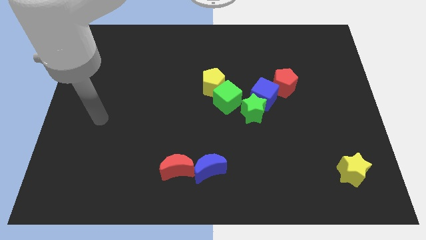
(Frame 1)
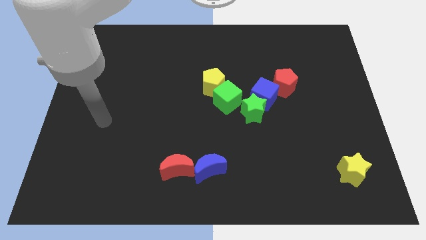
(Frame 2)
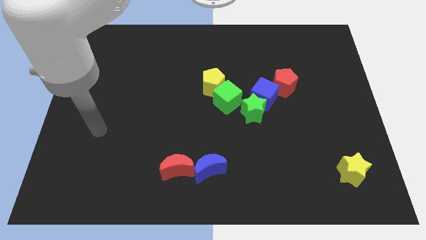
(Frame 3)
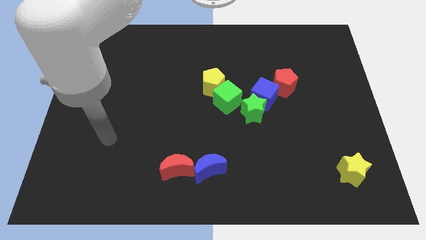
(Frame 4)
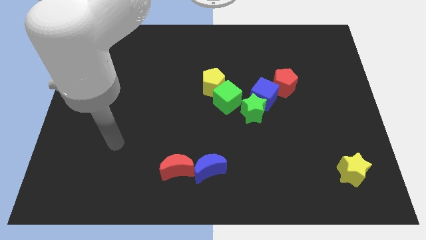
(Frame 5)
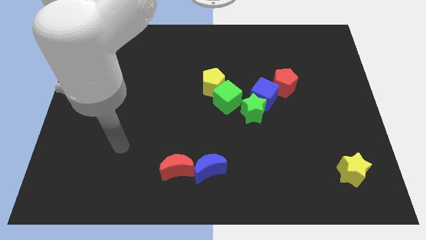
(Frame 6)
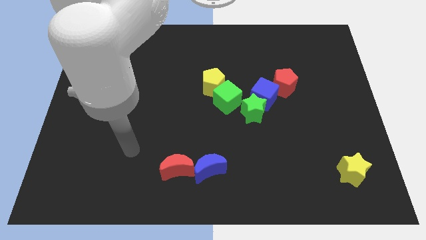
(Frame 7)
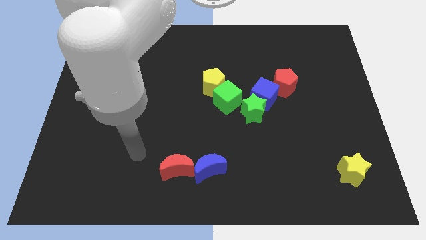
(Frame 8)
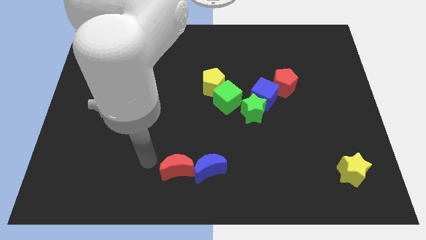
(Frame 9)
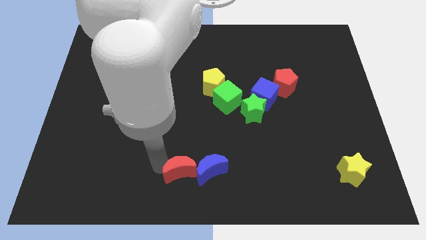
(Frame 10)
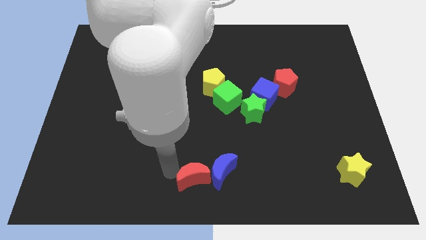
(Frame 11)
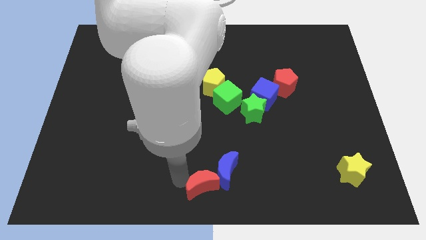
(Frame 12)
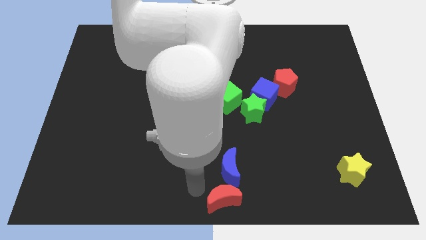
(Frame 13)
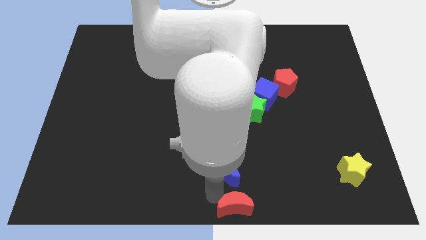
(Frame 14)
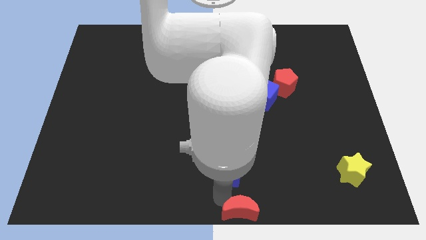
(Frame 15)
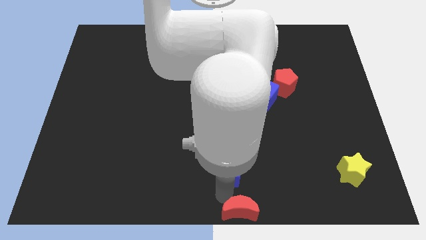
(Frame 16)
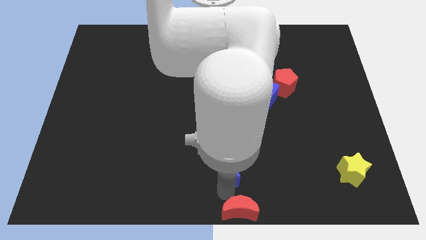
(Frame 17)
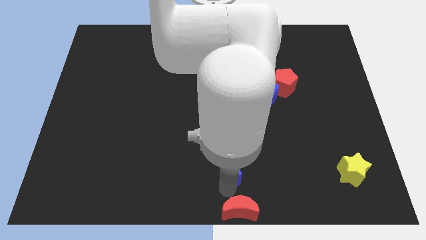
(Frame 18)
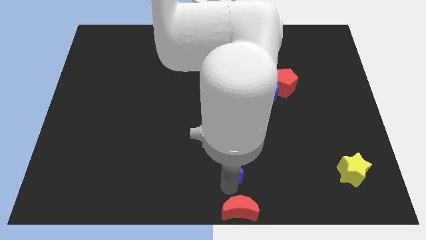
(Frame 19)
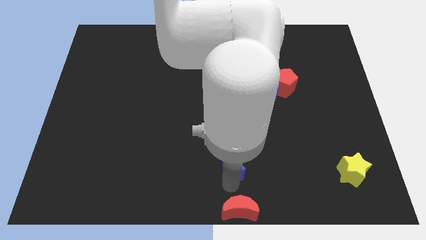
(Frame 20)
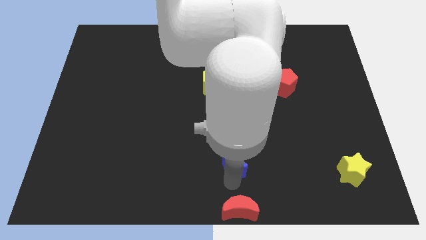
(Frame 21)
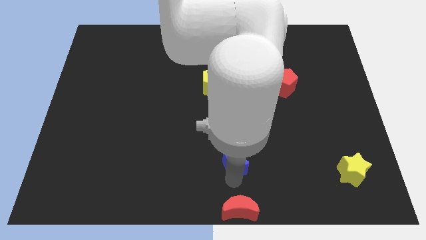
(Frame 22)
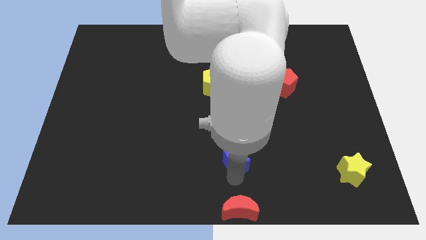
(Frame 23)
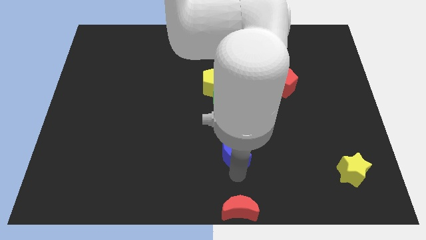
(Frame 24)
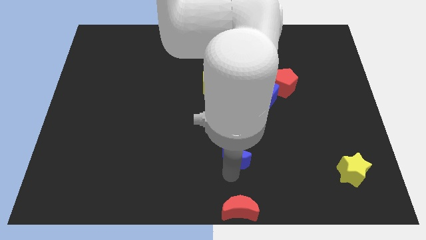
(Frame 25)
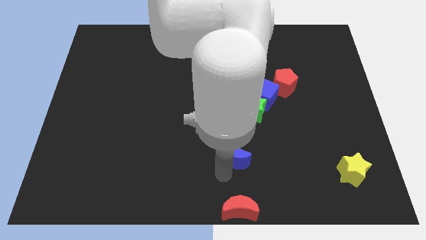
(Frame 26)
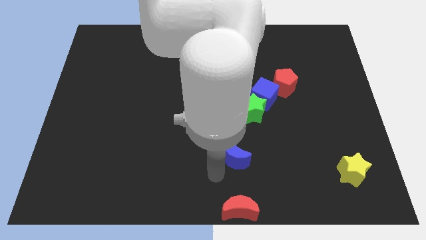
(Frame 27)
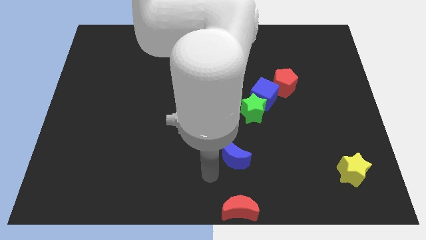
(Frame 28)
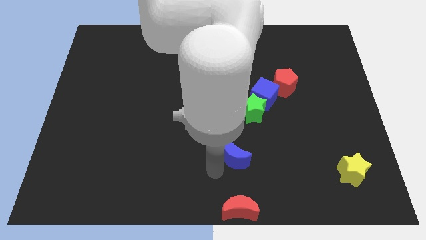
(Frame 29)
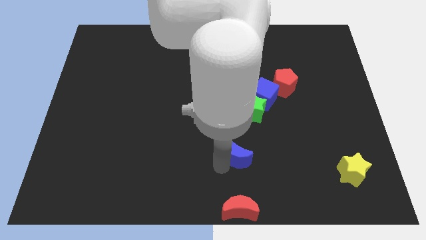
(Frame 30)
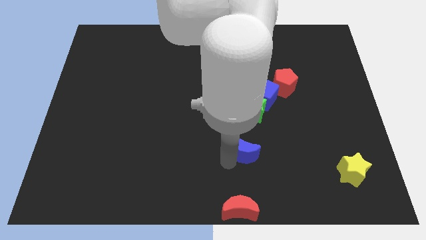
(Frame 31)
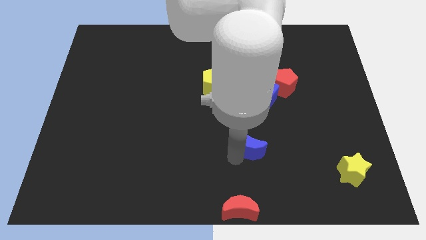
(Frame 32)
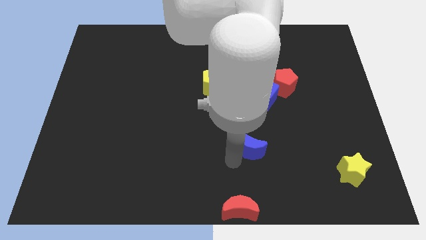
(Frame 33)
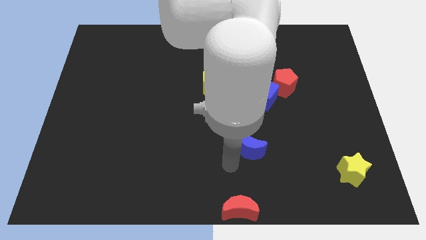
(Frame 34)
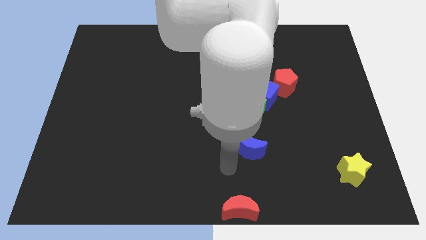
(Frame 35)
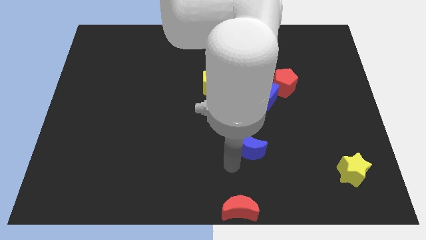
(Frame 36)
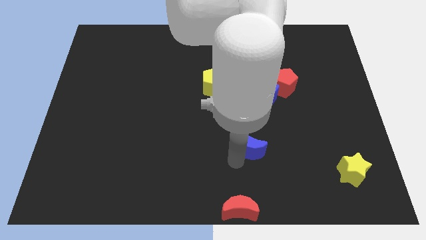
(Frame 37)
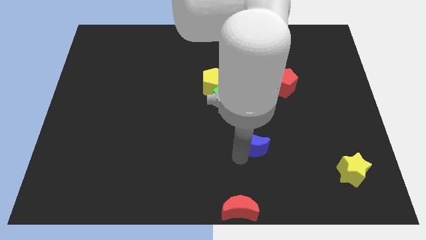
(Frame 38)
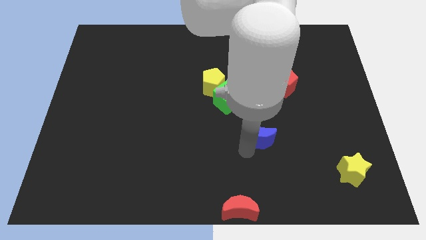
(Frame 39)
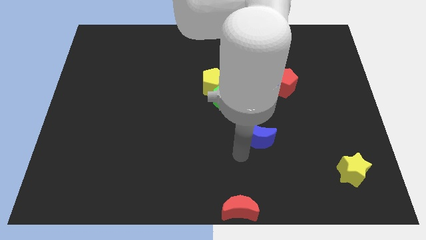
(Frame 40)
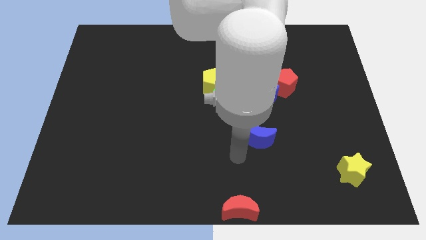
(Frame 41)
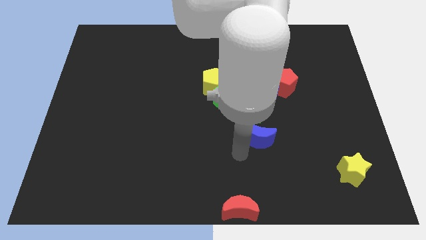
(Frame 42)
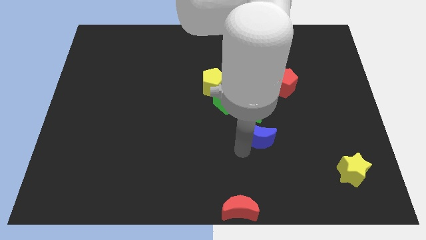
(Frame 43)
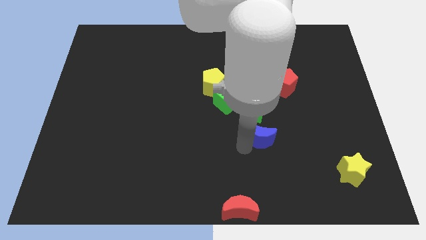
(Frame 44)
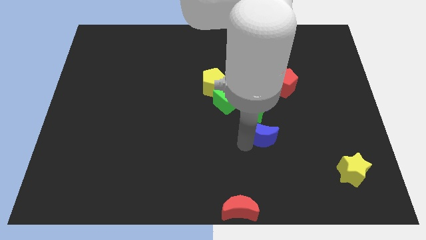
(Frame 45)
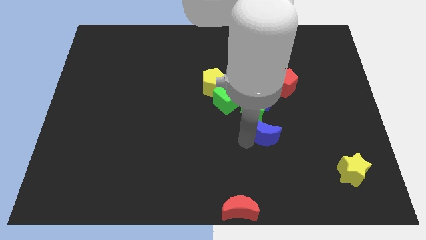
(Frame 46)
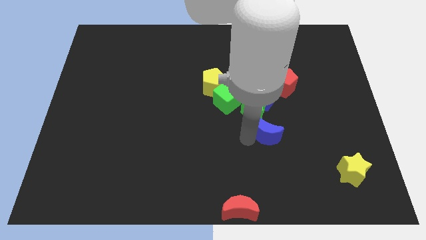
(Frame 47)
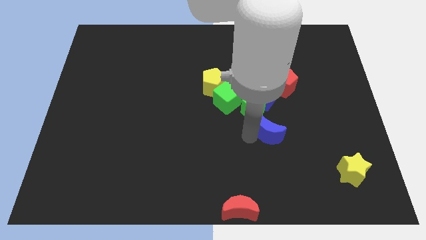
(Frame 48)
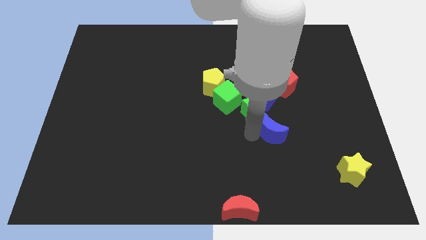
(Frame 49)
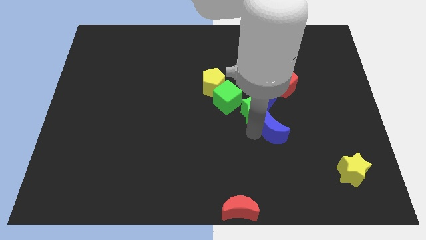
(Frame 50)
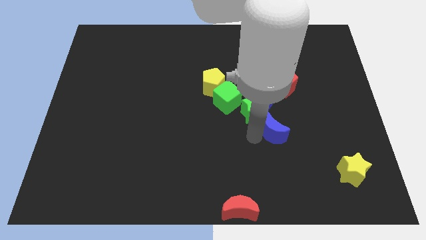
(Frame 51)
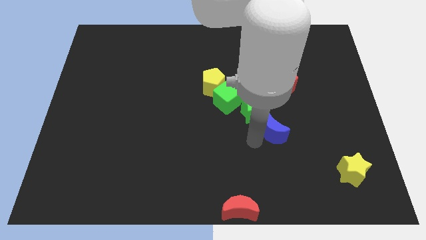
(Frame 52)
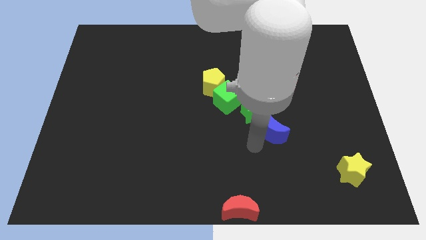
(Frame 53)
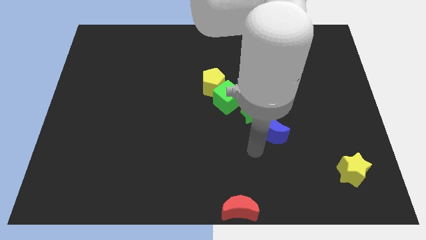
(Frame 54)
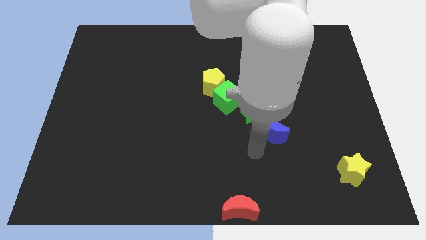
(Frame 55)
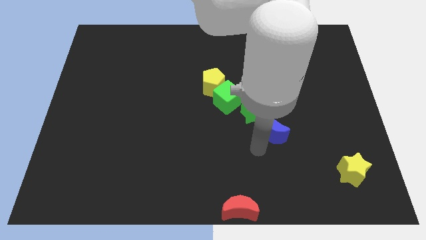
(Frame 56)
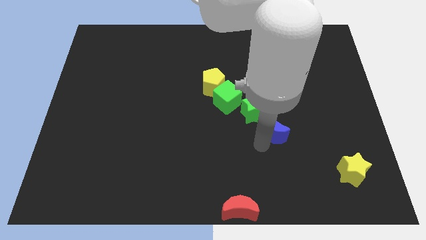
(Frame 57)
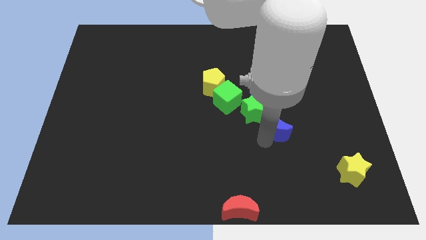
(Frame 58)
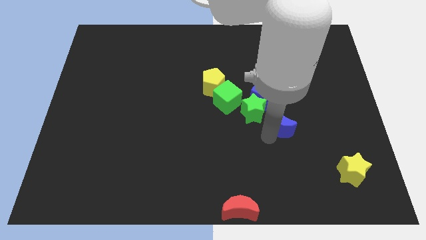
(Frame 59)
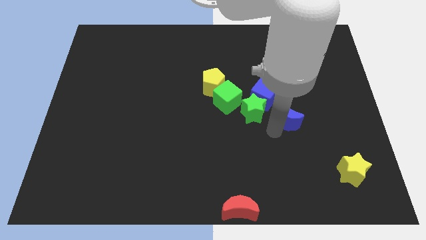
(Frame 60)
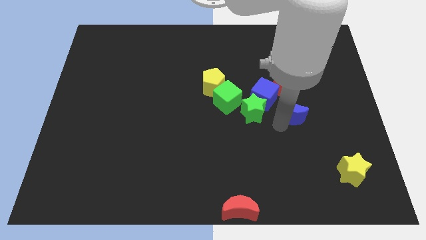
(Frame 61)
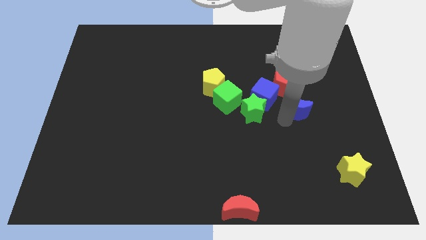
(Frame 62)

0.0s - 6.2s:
push the blue moon to the right side of the blue cube

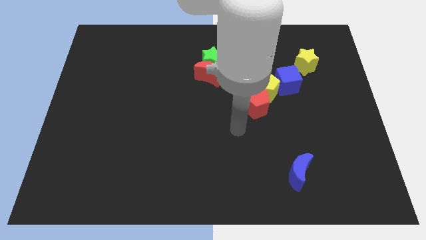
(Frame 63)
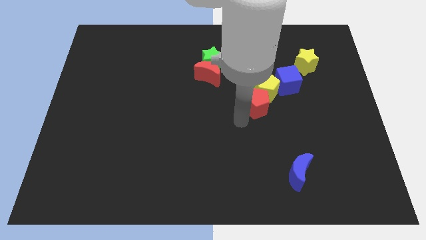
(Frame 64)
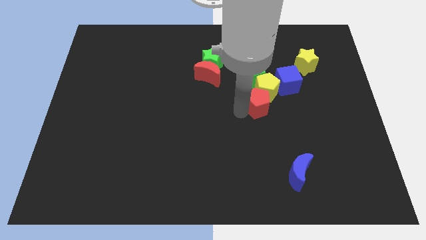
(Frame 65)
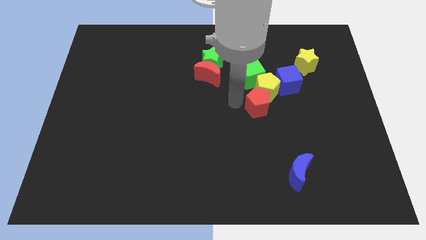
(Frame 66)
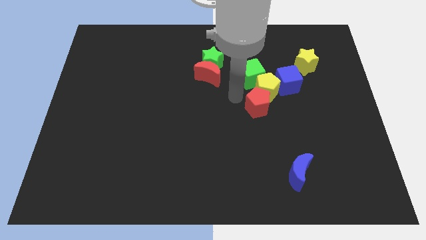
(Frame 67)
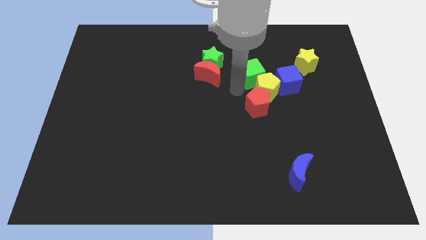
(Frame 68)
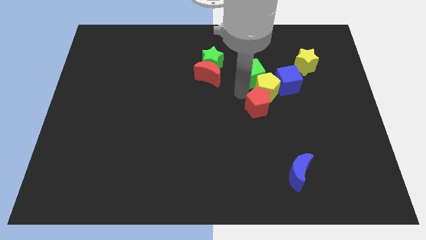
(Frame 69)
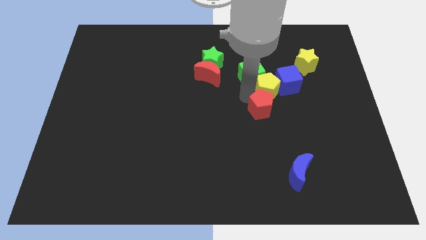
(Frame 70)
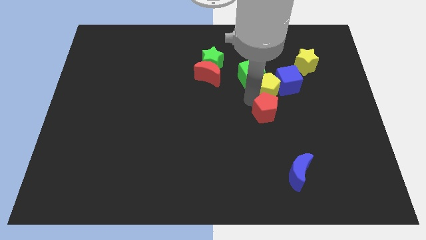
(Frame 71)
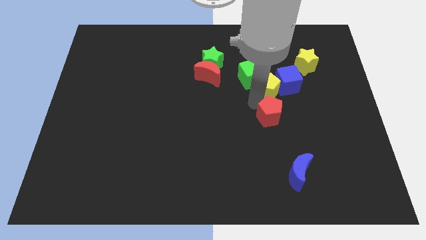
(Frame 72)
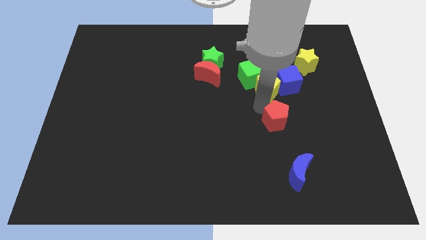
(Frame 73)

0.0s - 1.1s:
slide the red pentagon above the blue moon
